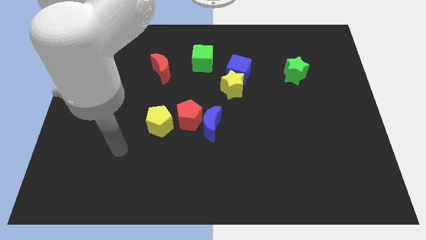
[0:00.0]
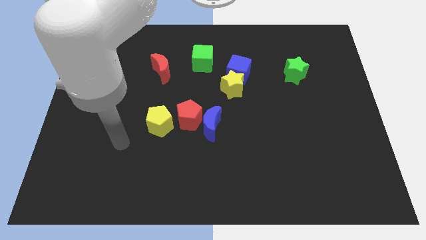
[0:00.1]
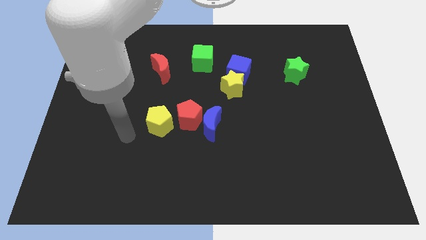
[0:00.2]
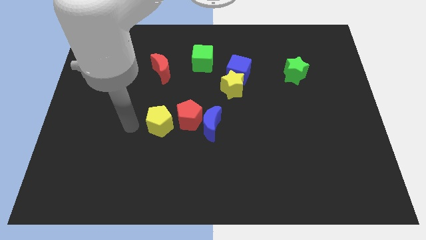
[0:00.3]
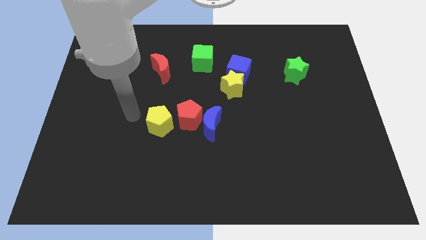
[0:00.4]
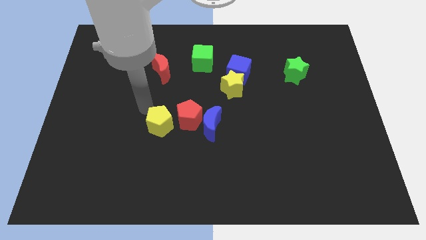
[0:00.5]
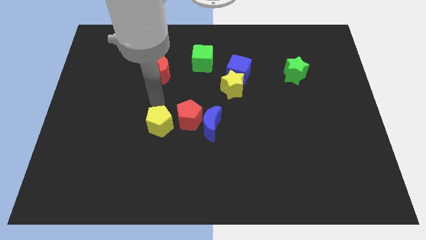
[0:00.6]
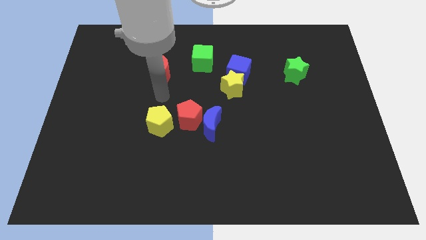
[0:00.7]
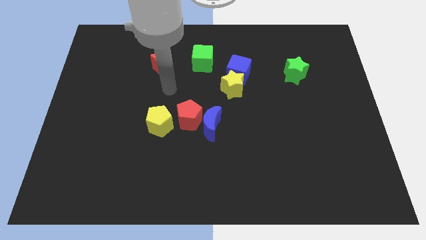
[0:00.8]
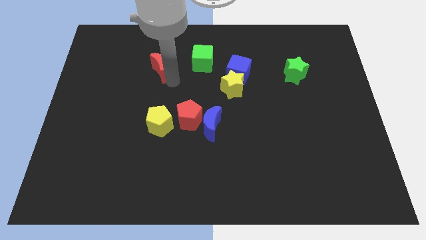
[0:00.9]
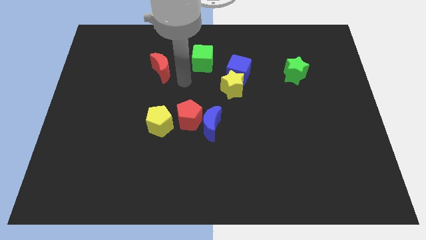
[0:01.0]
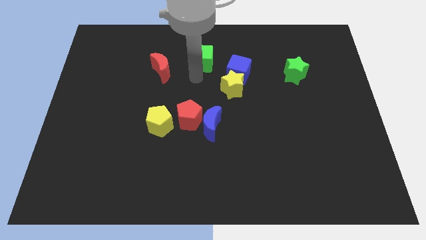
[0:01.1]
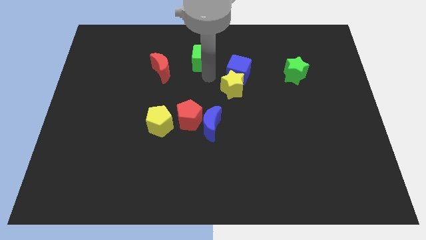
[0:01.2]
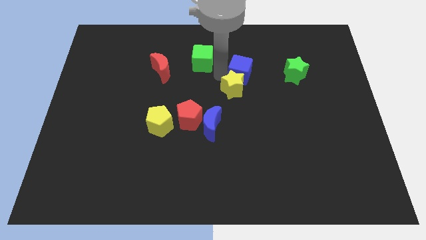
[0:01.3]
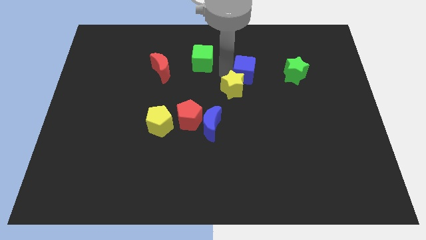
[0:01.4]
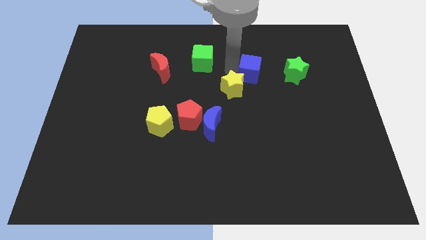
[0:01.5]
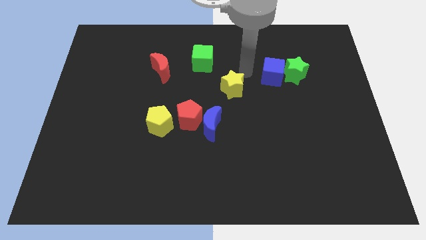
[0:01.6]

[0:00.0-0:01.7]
move the yellow star away from the blue cube

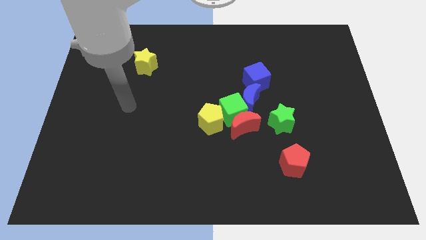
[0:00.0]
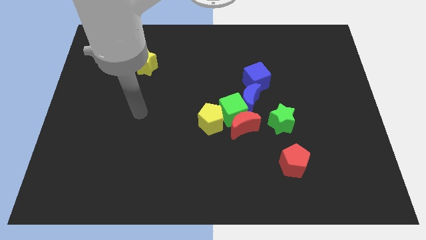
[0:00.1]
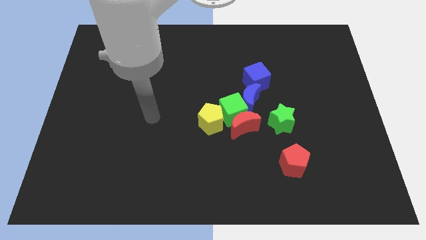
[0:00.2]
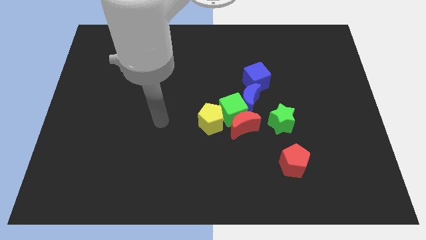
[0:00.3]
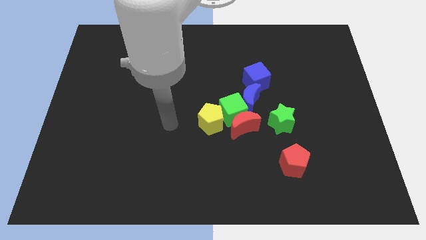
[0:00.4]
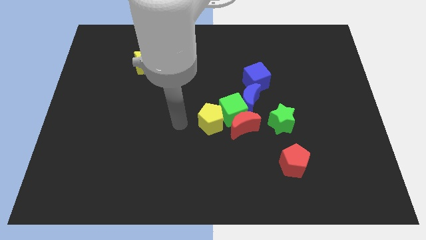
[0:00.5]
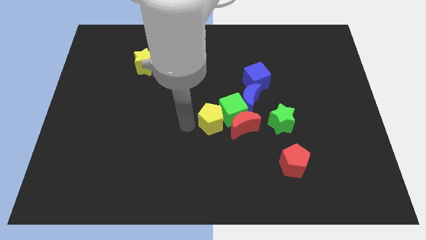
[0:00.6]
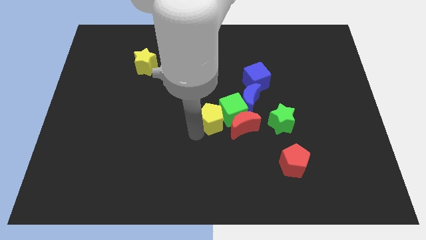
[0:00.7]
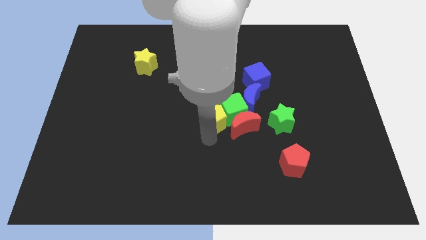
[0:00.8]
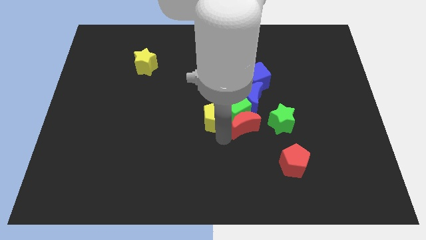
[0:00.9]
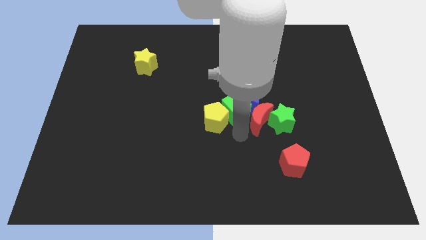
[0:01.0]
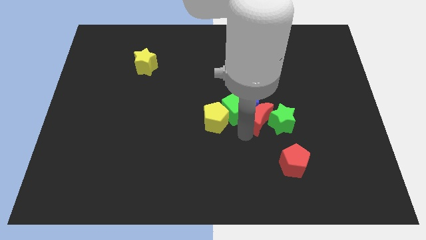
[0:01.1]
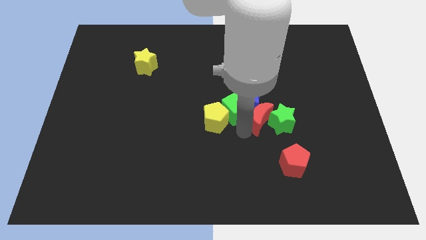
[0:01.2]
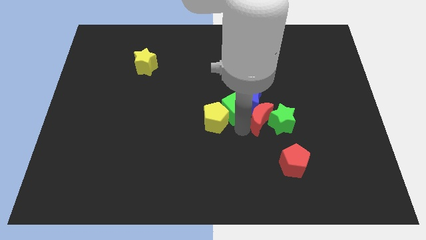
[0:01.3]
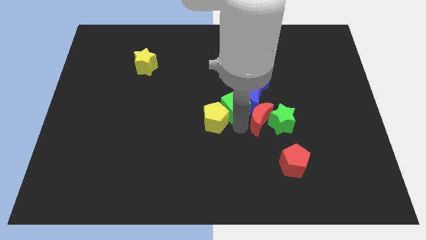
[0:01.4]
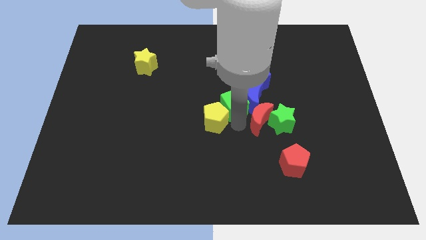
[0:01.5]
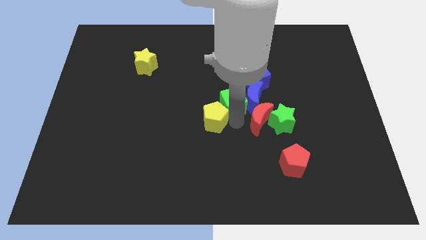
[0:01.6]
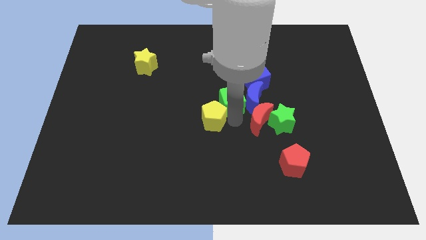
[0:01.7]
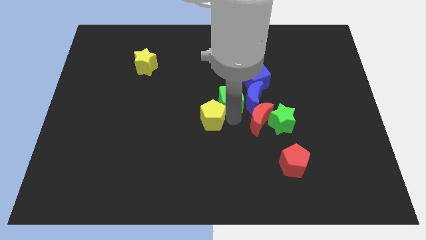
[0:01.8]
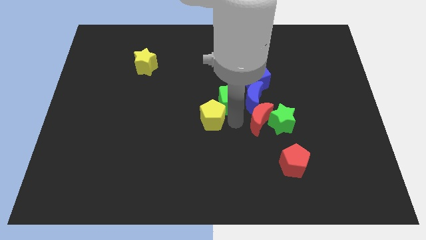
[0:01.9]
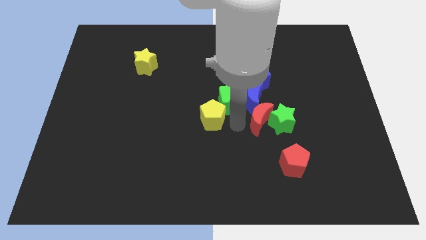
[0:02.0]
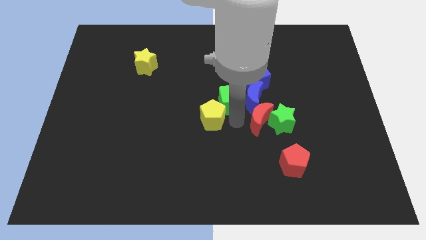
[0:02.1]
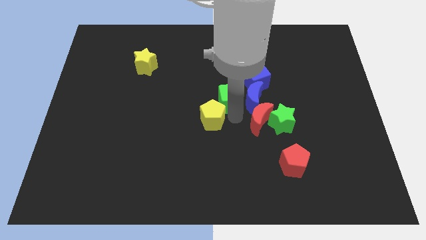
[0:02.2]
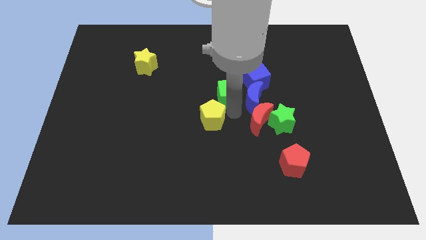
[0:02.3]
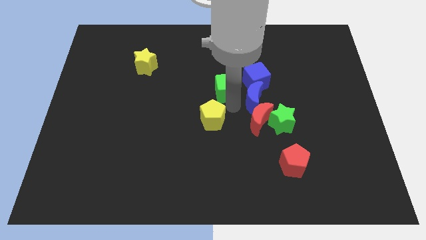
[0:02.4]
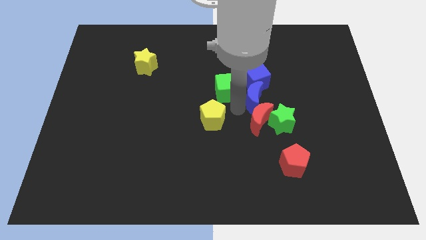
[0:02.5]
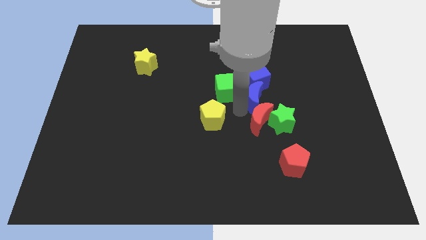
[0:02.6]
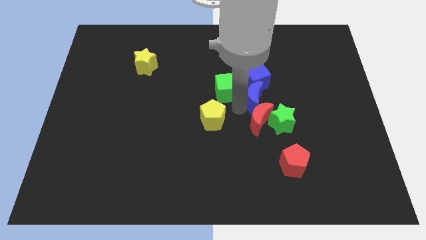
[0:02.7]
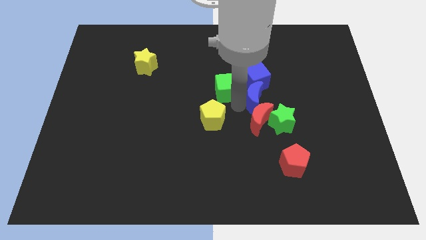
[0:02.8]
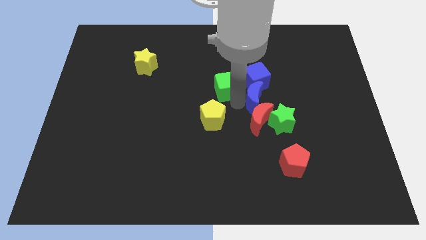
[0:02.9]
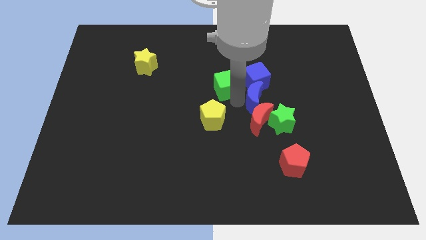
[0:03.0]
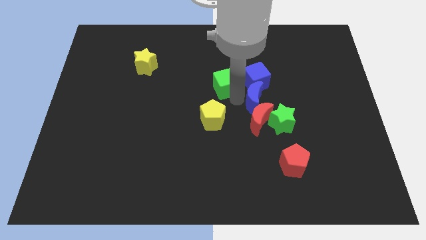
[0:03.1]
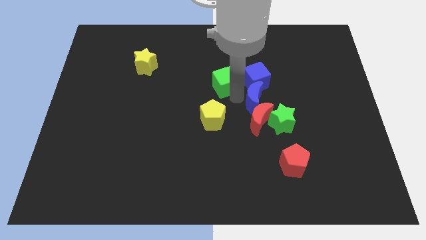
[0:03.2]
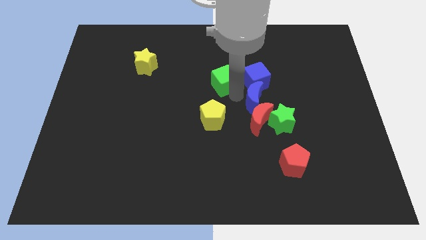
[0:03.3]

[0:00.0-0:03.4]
separate the green cube from the group of blocks

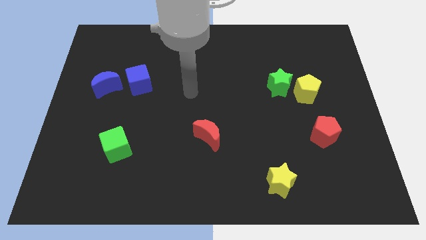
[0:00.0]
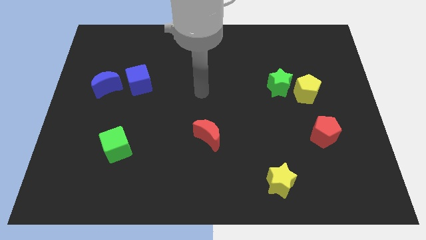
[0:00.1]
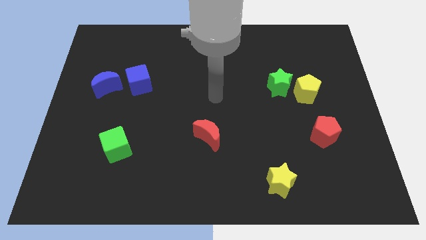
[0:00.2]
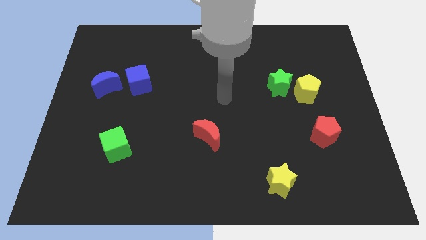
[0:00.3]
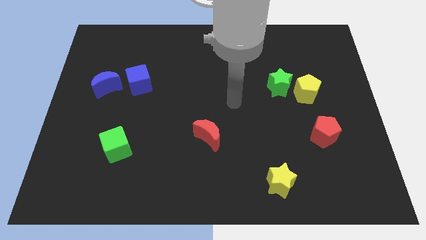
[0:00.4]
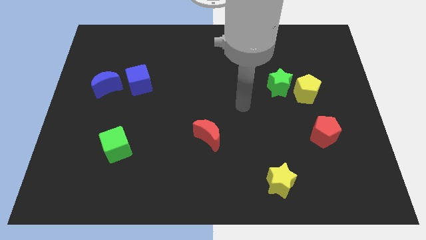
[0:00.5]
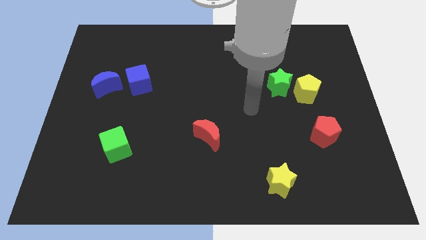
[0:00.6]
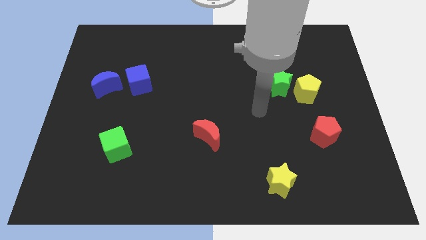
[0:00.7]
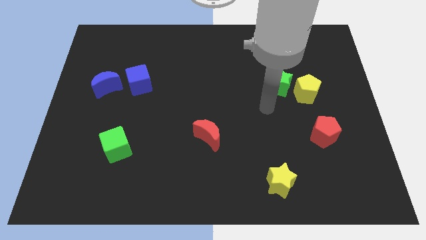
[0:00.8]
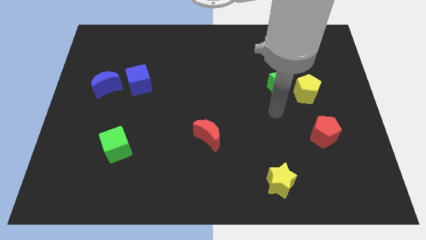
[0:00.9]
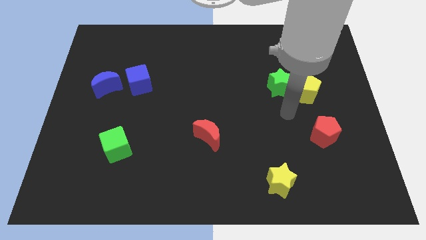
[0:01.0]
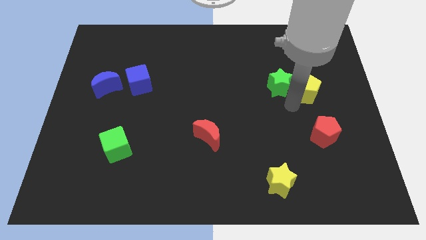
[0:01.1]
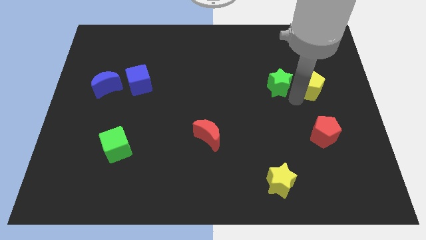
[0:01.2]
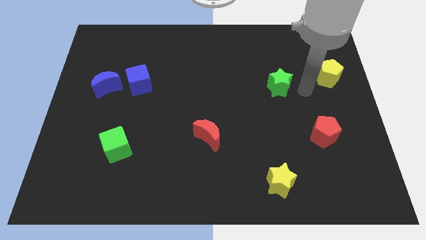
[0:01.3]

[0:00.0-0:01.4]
separate the green star from the yellow pentagon

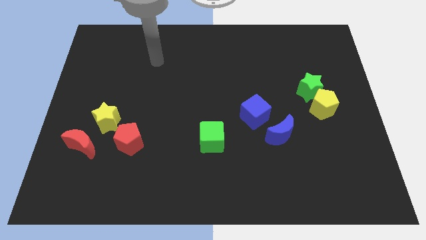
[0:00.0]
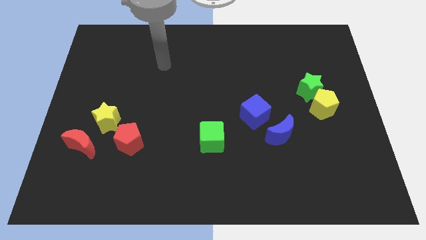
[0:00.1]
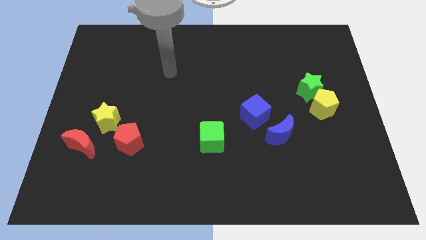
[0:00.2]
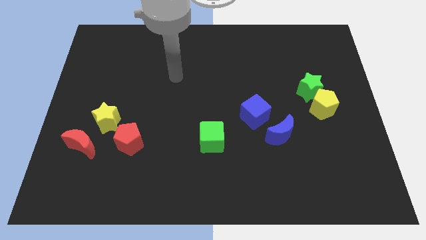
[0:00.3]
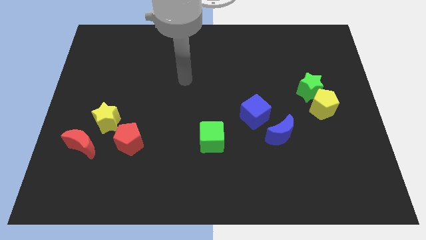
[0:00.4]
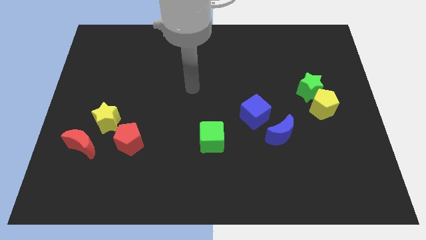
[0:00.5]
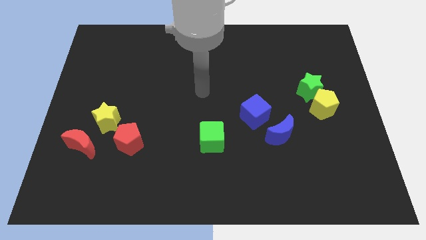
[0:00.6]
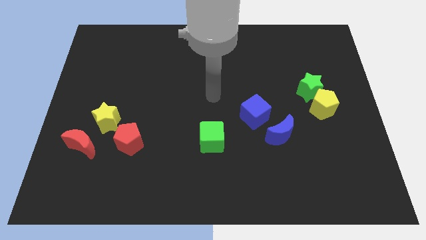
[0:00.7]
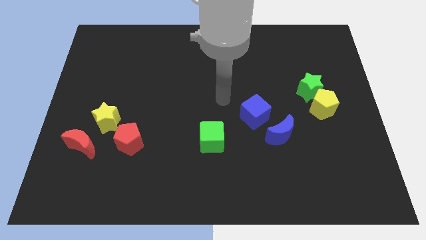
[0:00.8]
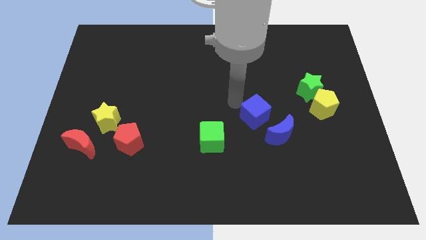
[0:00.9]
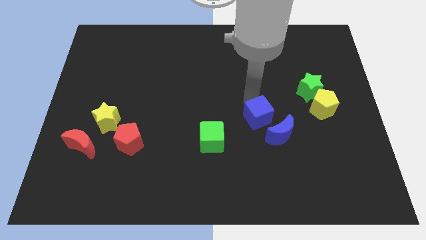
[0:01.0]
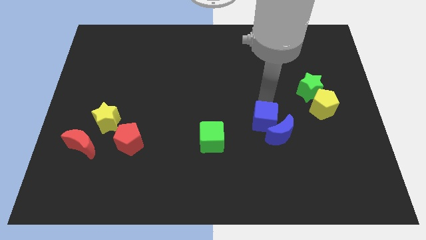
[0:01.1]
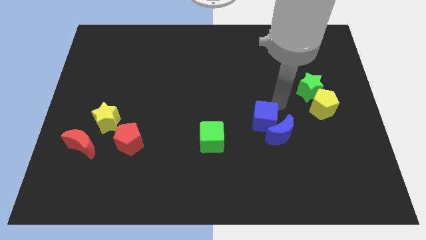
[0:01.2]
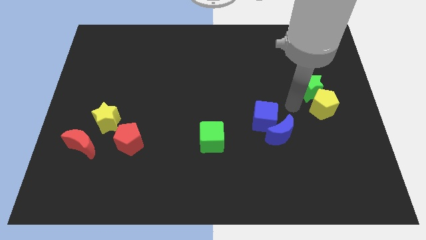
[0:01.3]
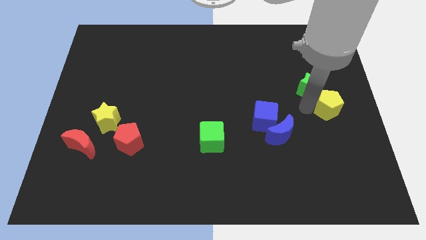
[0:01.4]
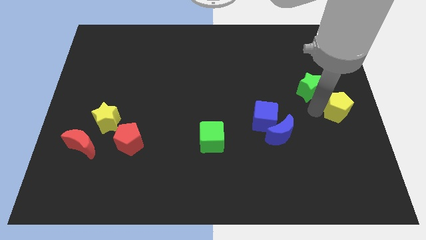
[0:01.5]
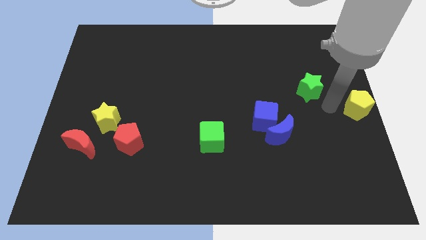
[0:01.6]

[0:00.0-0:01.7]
pull the green star apart from the yellow pentagon

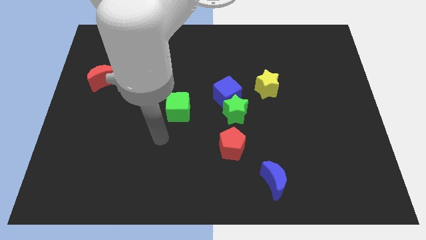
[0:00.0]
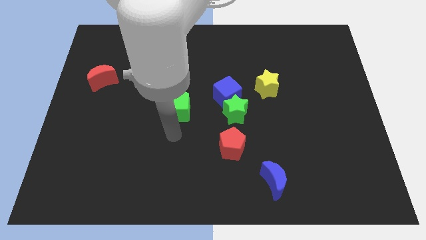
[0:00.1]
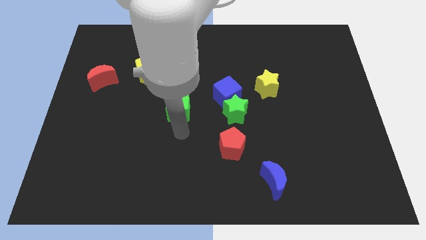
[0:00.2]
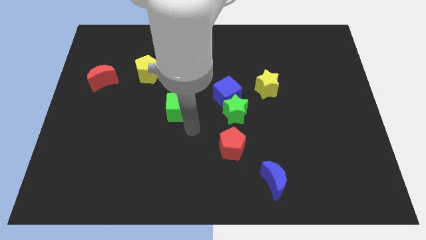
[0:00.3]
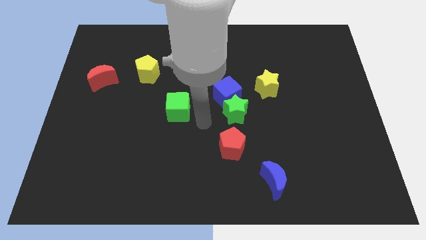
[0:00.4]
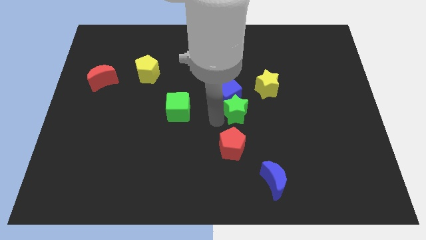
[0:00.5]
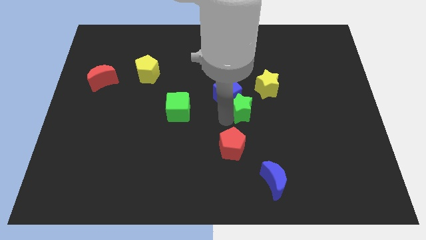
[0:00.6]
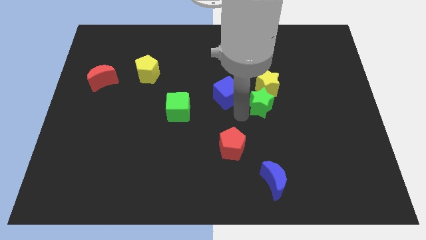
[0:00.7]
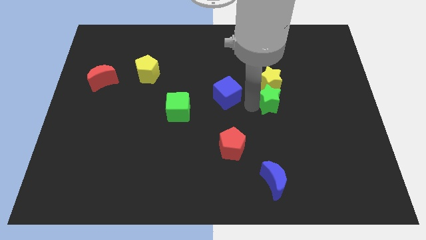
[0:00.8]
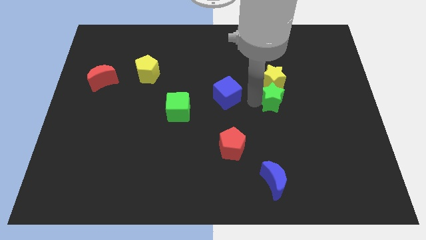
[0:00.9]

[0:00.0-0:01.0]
move the blue cube away from the green star
